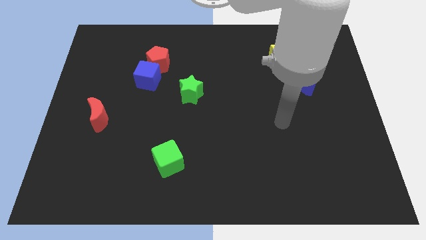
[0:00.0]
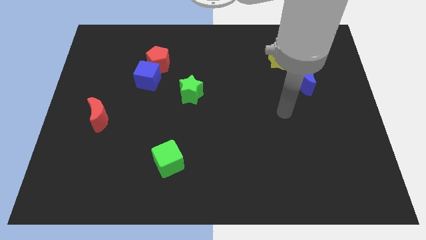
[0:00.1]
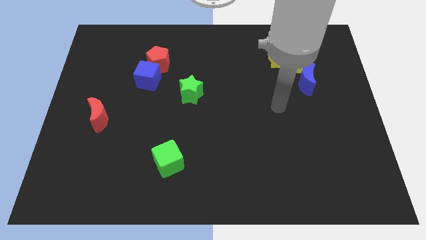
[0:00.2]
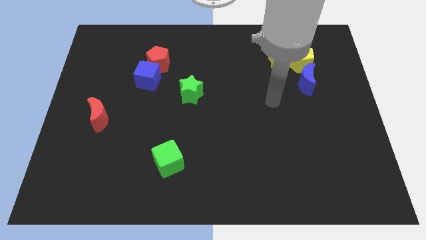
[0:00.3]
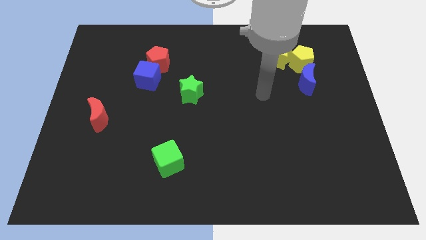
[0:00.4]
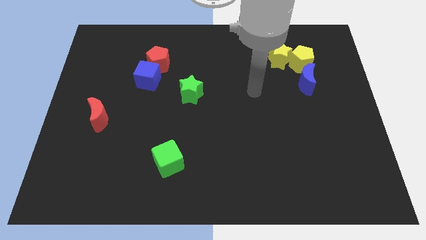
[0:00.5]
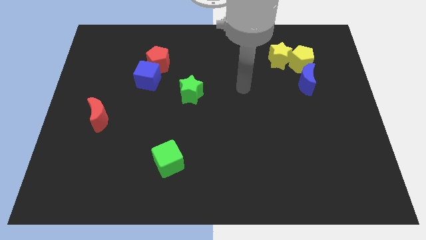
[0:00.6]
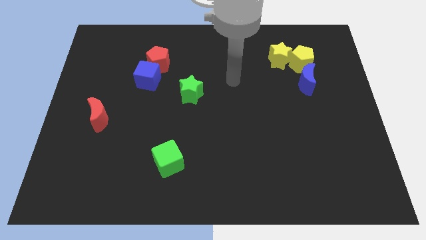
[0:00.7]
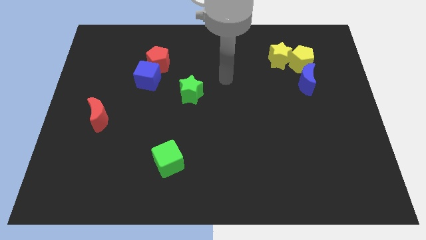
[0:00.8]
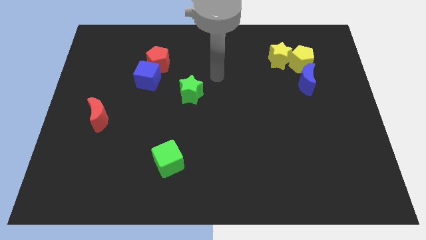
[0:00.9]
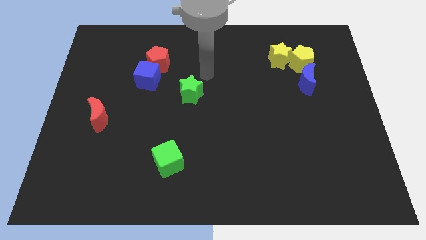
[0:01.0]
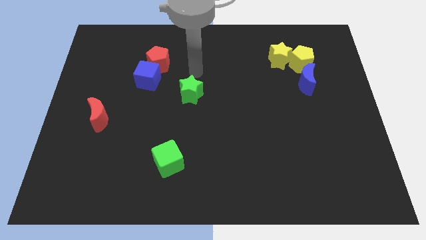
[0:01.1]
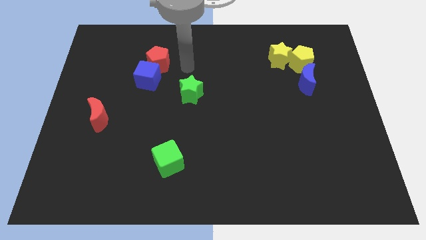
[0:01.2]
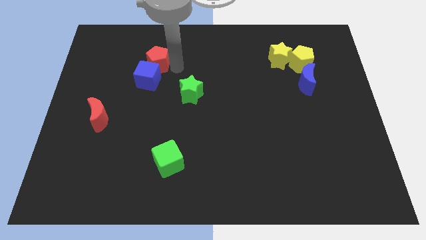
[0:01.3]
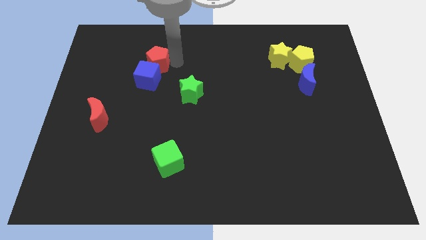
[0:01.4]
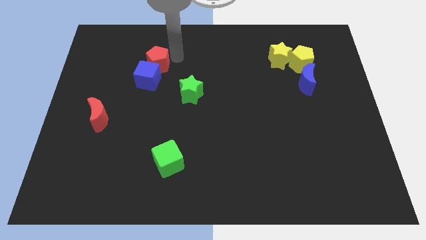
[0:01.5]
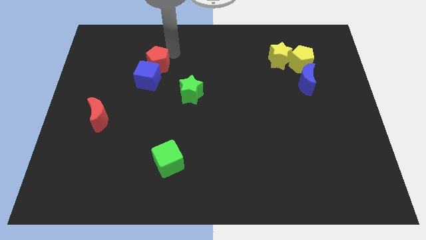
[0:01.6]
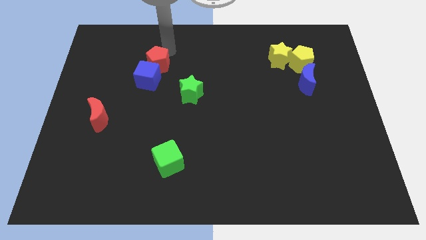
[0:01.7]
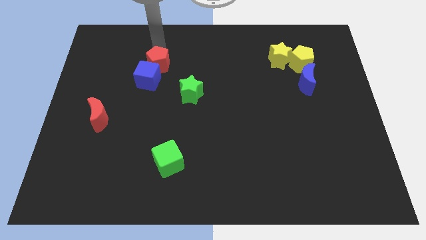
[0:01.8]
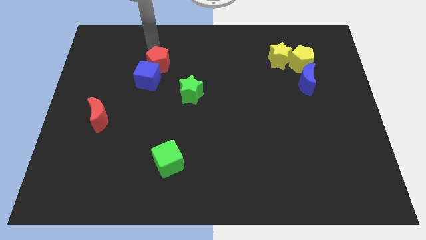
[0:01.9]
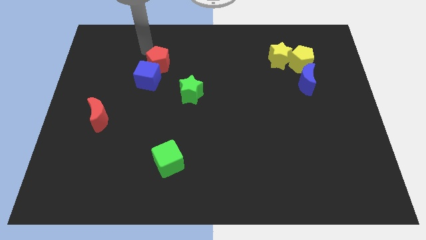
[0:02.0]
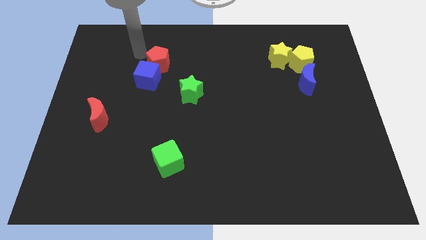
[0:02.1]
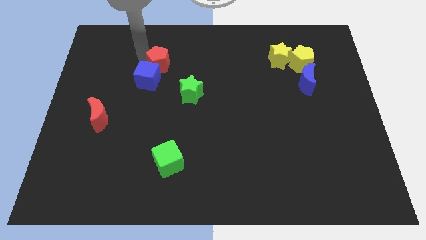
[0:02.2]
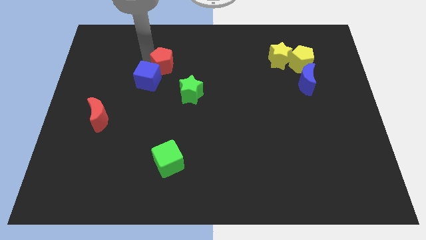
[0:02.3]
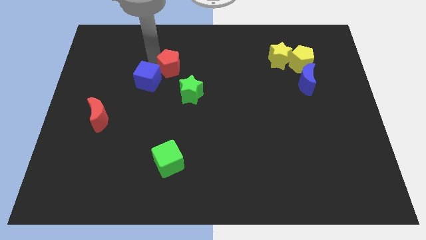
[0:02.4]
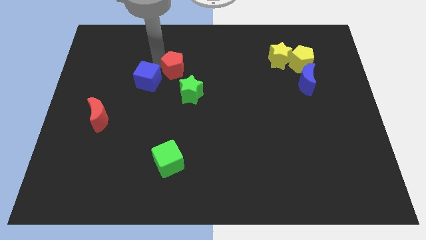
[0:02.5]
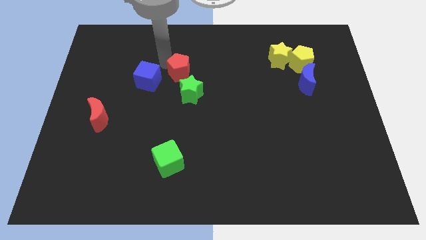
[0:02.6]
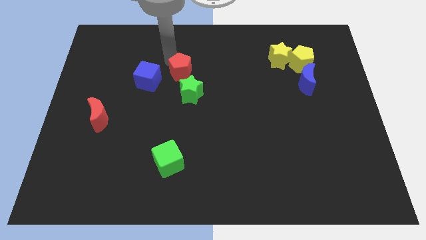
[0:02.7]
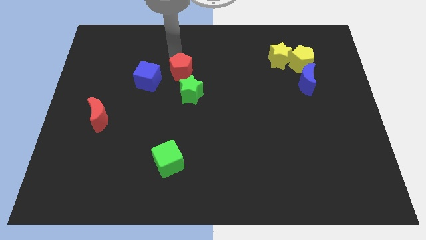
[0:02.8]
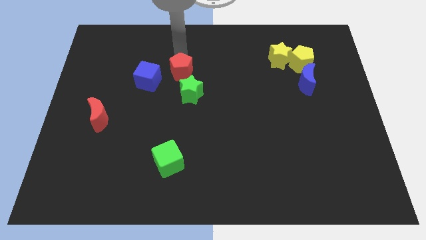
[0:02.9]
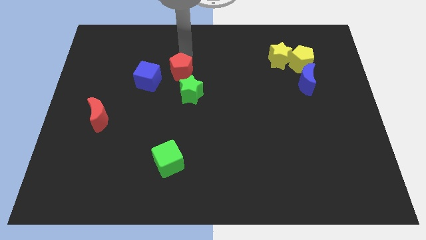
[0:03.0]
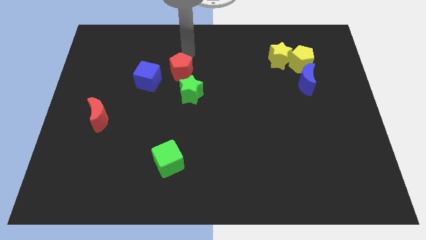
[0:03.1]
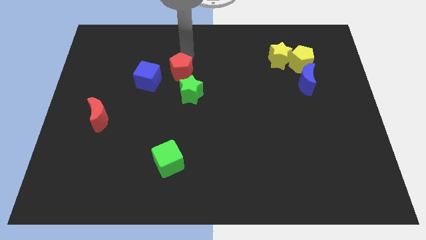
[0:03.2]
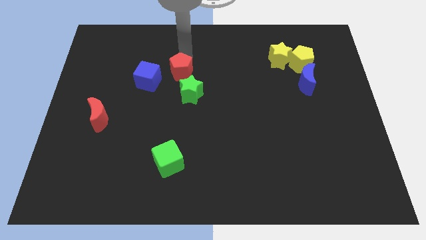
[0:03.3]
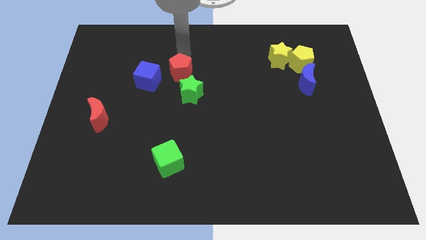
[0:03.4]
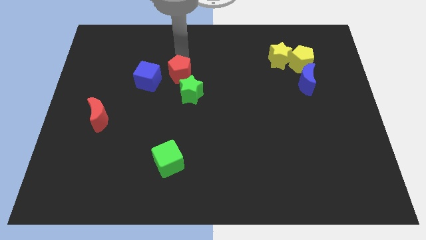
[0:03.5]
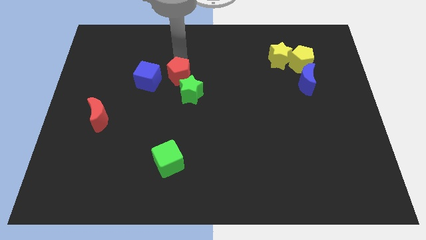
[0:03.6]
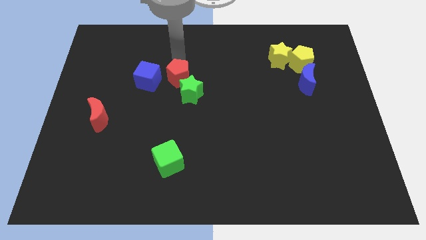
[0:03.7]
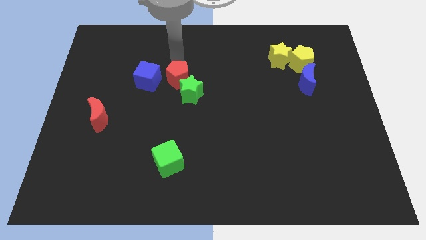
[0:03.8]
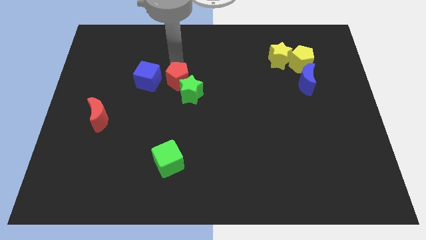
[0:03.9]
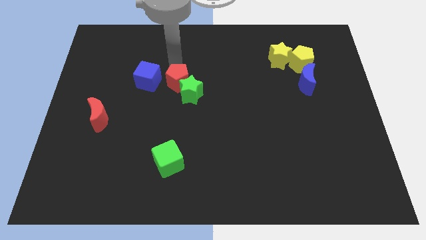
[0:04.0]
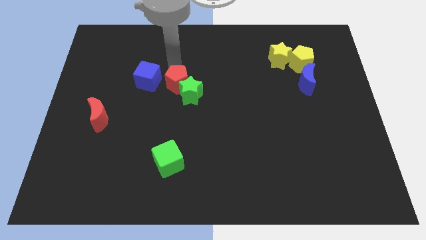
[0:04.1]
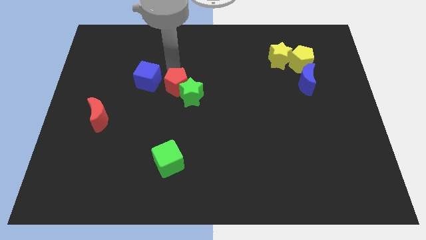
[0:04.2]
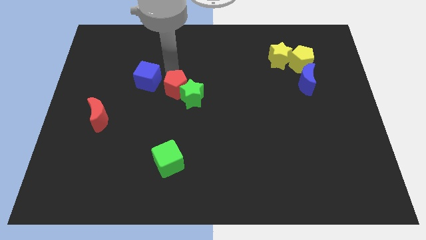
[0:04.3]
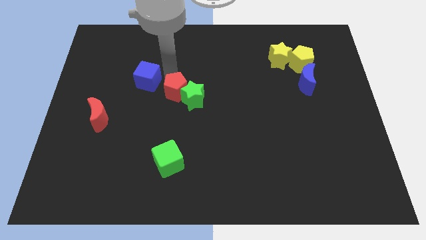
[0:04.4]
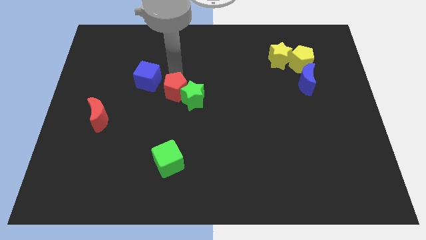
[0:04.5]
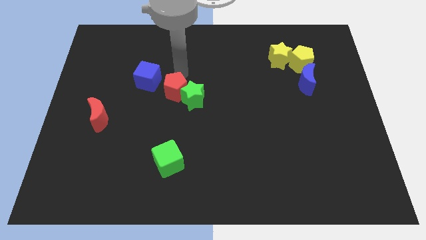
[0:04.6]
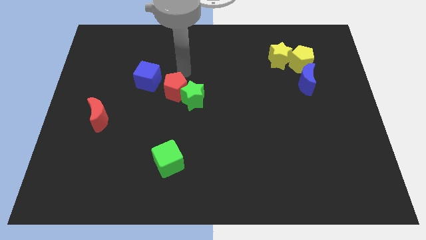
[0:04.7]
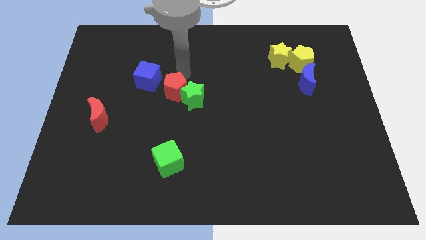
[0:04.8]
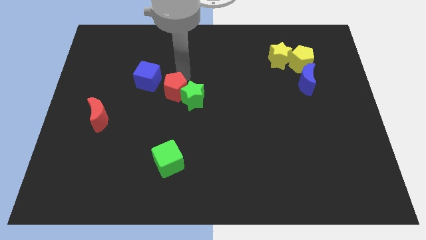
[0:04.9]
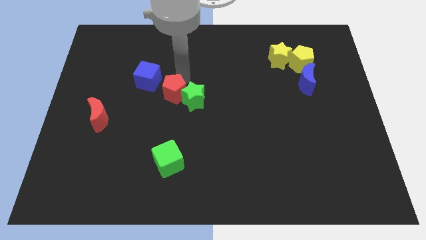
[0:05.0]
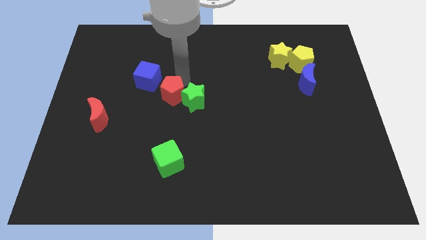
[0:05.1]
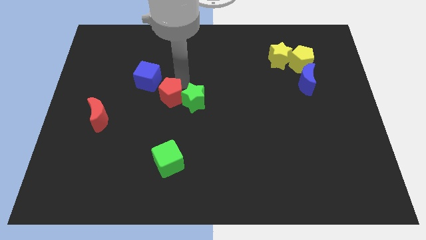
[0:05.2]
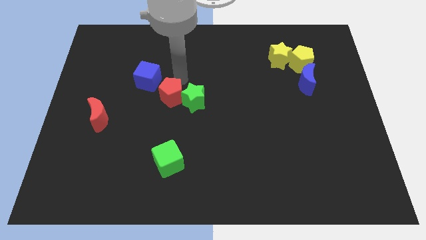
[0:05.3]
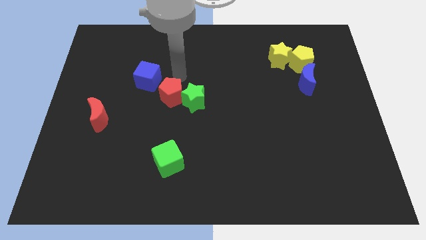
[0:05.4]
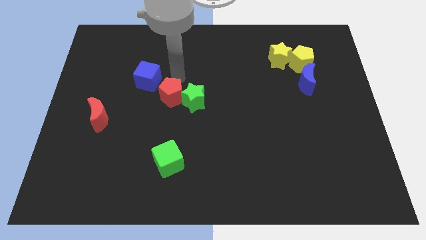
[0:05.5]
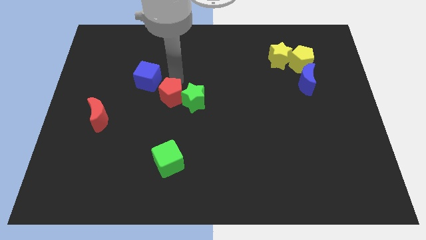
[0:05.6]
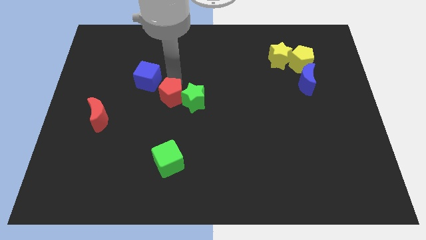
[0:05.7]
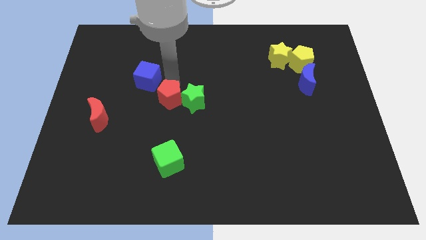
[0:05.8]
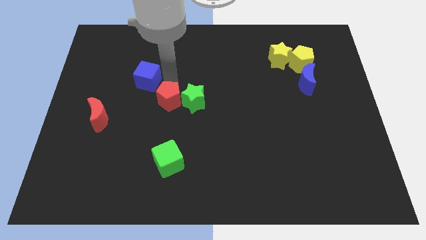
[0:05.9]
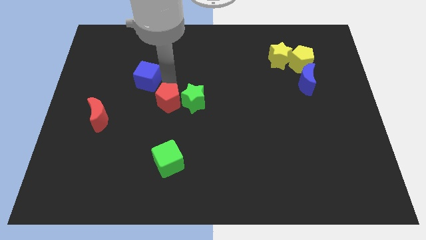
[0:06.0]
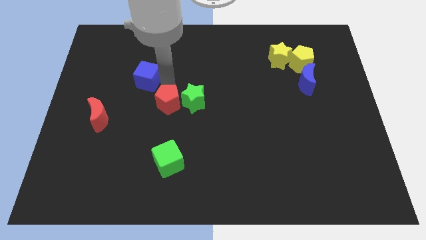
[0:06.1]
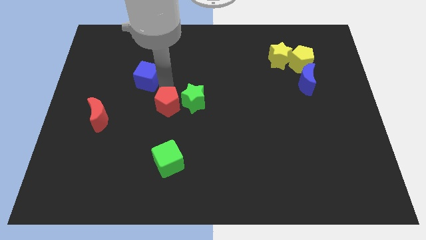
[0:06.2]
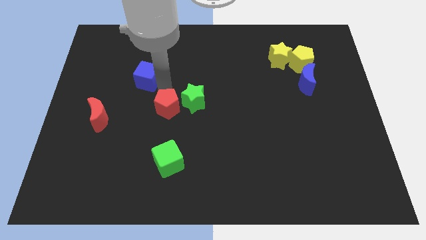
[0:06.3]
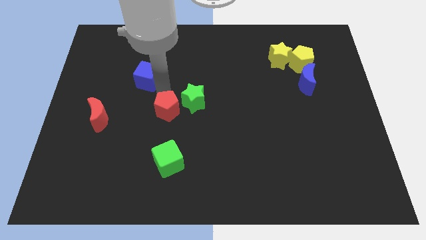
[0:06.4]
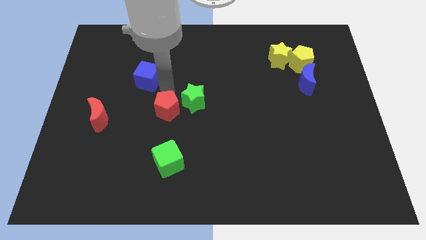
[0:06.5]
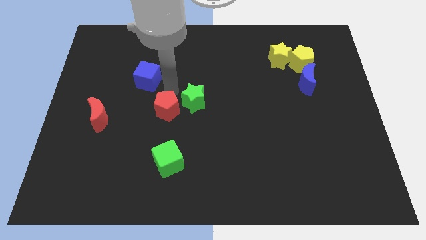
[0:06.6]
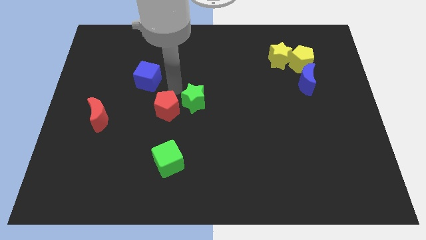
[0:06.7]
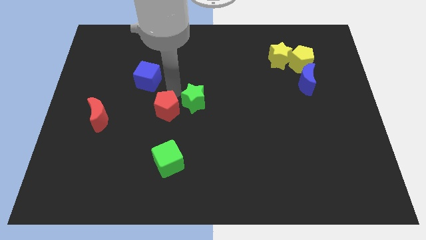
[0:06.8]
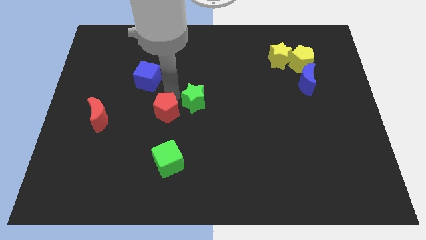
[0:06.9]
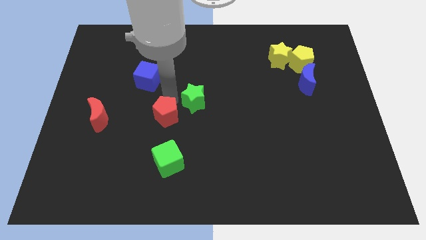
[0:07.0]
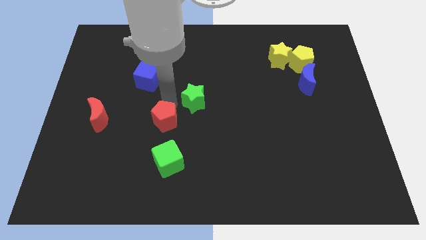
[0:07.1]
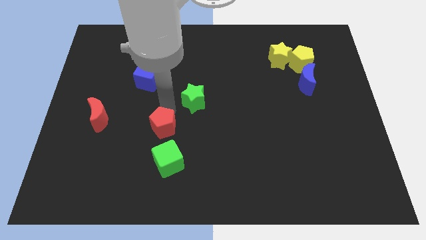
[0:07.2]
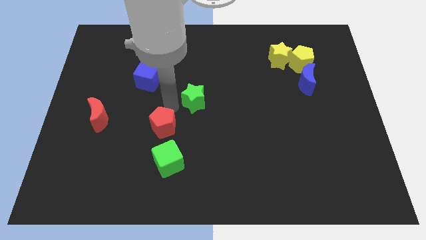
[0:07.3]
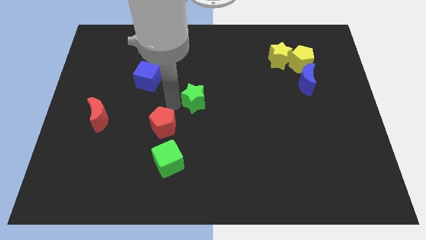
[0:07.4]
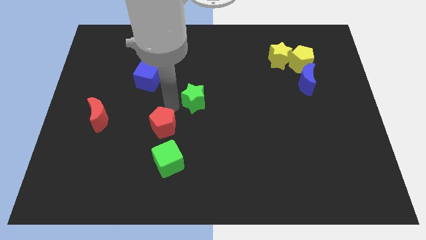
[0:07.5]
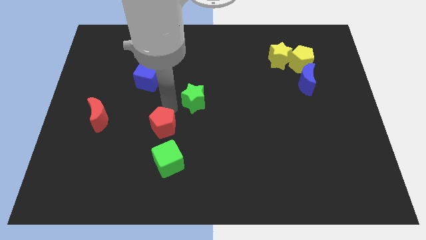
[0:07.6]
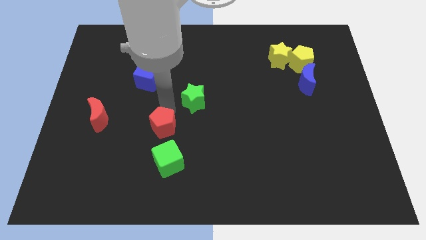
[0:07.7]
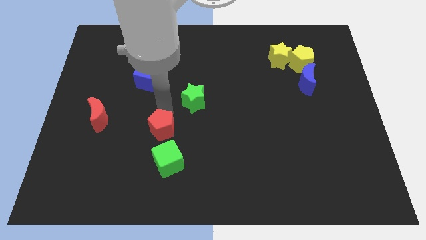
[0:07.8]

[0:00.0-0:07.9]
slide the red pentagon downwards

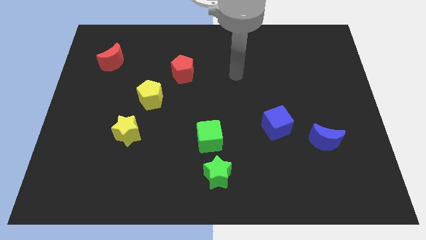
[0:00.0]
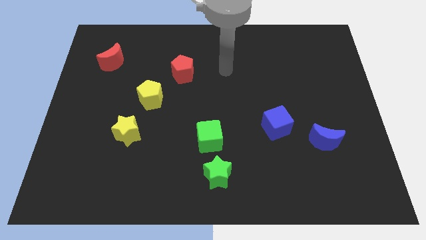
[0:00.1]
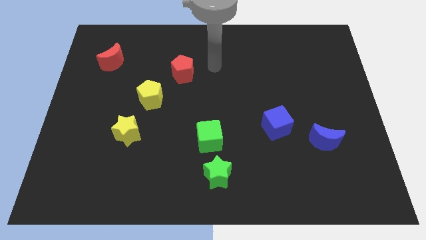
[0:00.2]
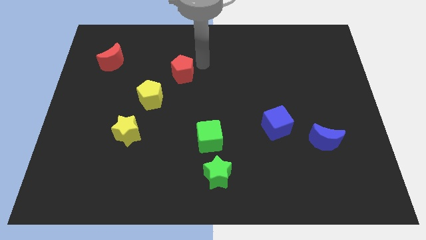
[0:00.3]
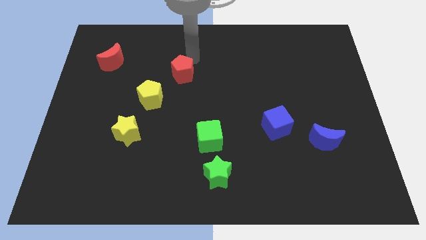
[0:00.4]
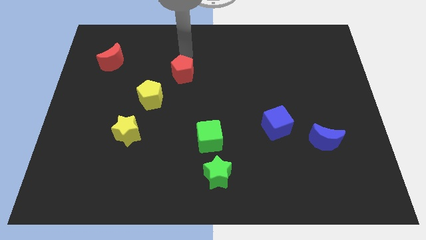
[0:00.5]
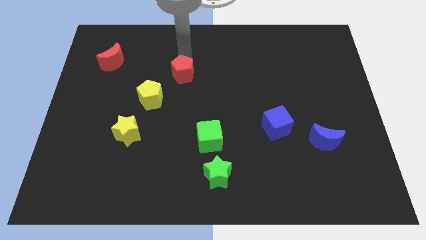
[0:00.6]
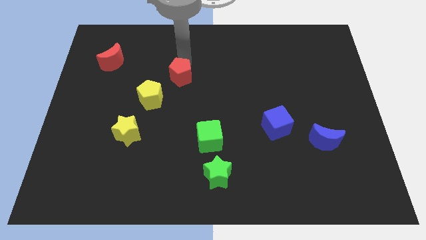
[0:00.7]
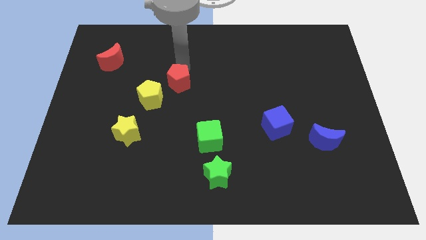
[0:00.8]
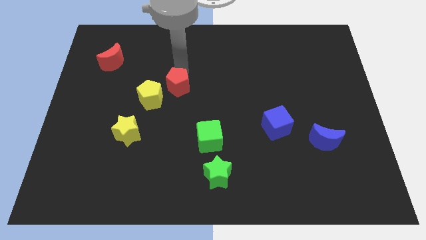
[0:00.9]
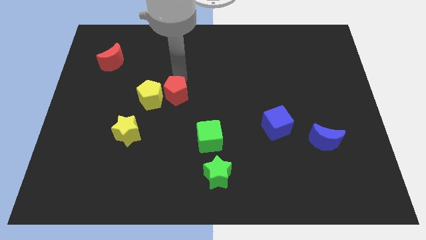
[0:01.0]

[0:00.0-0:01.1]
slide the red pentagon a bit downwards
